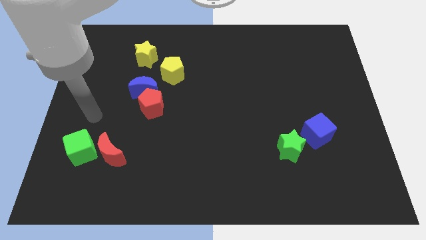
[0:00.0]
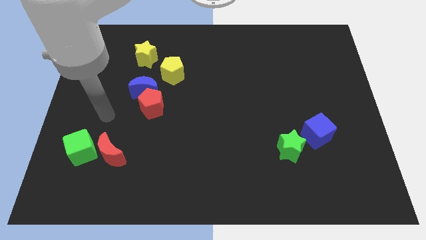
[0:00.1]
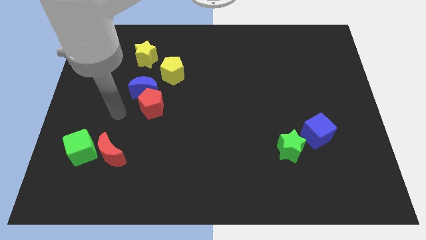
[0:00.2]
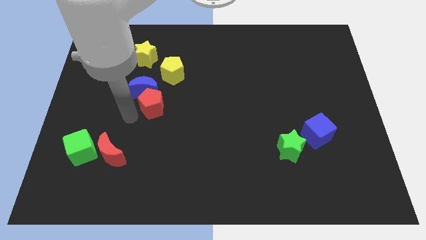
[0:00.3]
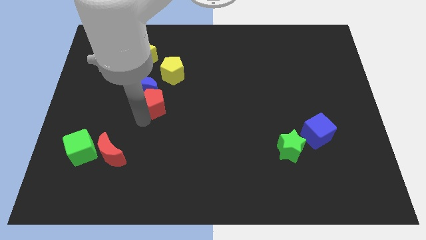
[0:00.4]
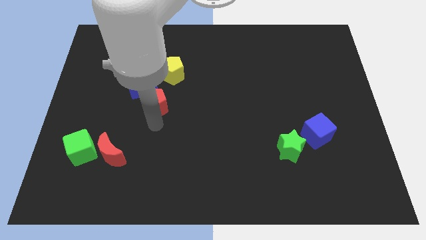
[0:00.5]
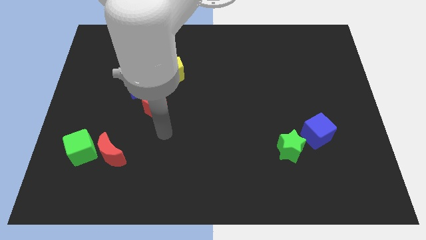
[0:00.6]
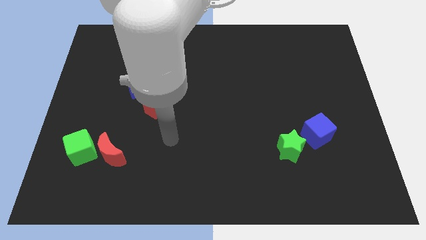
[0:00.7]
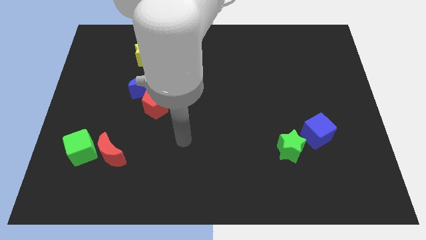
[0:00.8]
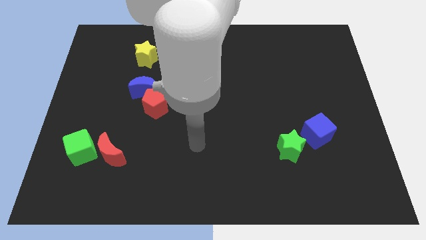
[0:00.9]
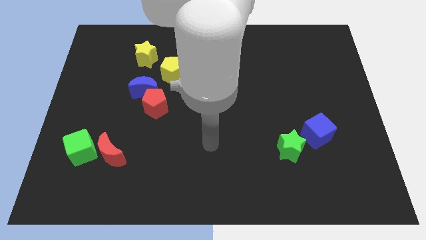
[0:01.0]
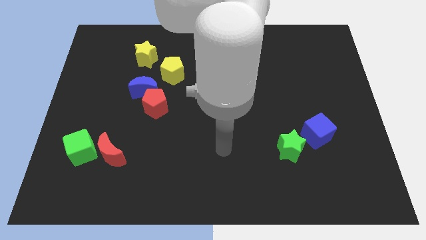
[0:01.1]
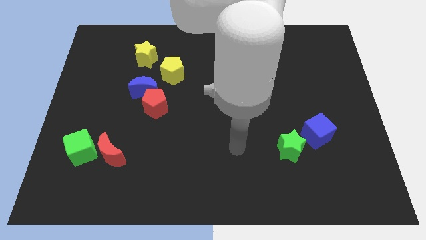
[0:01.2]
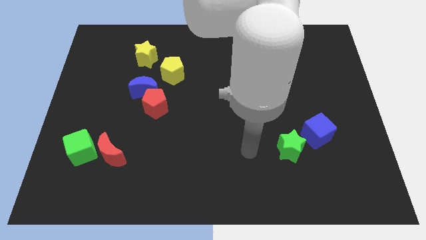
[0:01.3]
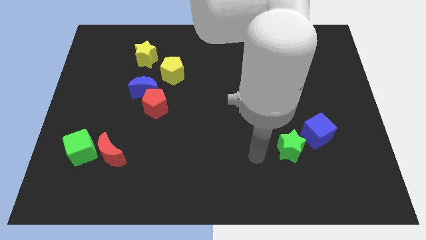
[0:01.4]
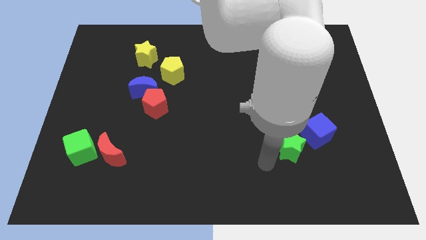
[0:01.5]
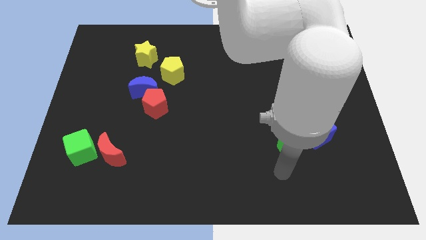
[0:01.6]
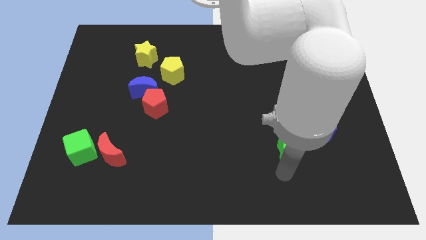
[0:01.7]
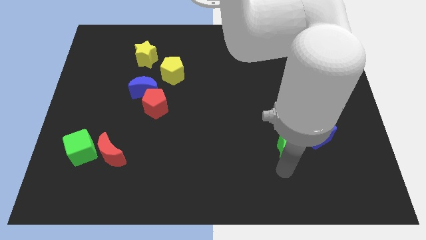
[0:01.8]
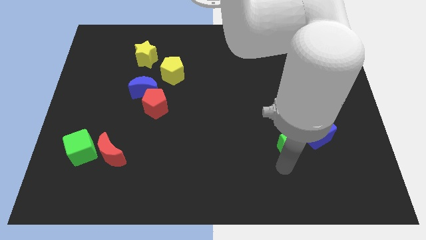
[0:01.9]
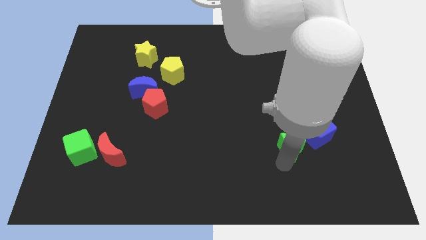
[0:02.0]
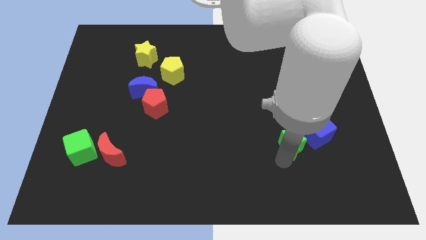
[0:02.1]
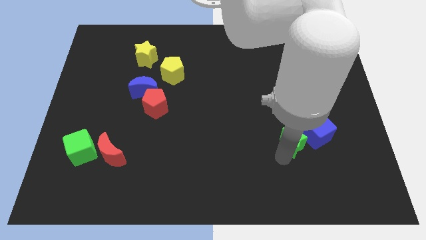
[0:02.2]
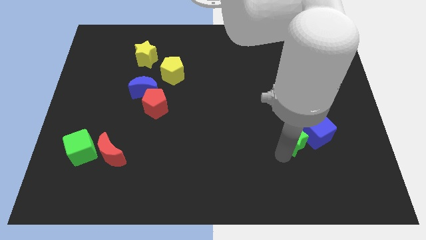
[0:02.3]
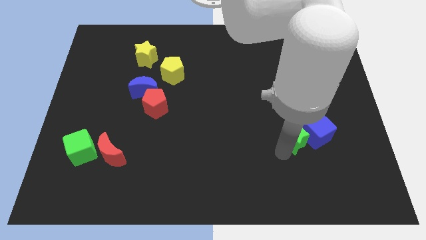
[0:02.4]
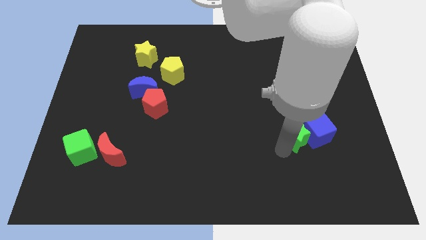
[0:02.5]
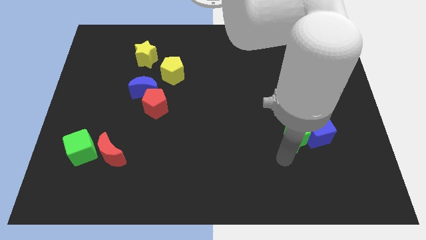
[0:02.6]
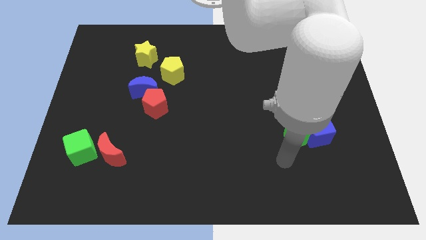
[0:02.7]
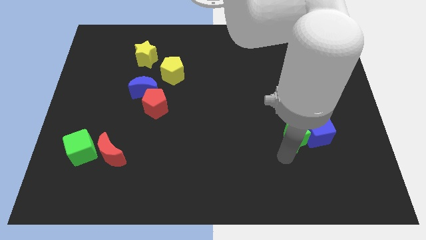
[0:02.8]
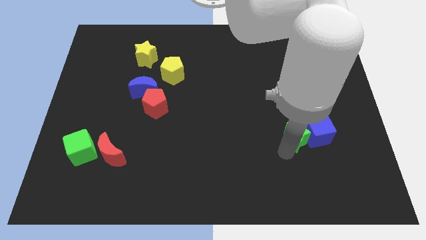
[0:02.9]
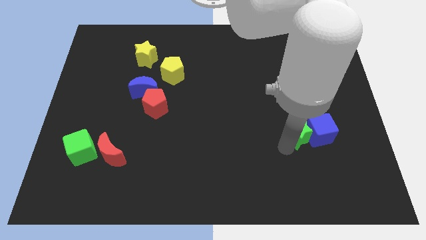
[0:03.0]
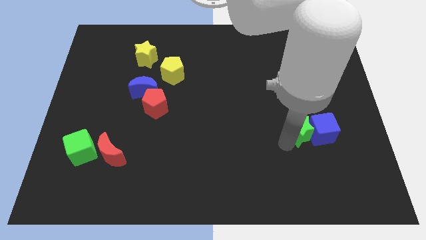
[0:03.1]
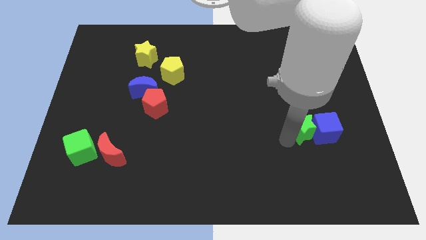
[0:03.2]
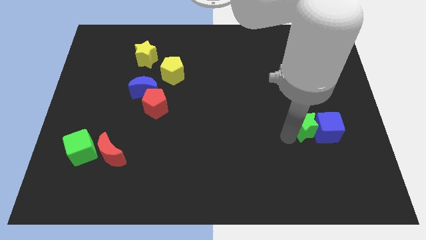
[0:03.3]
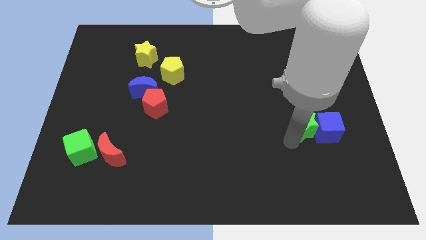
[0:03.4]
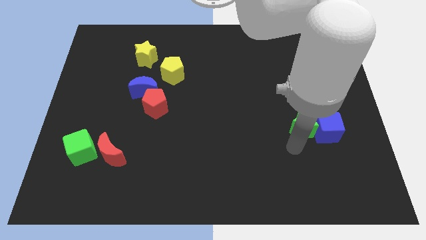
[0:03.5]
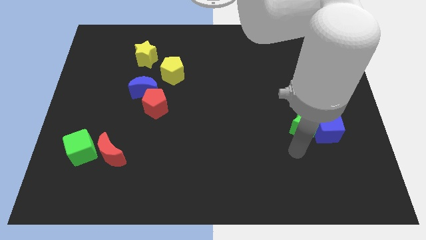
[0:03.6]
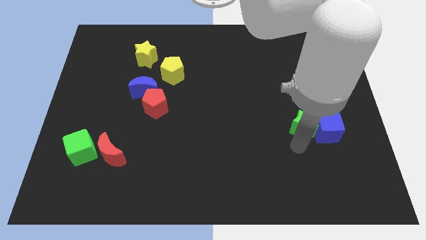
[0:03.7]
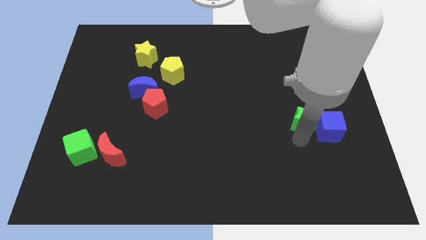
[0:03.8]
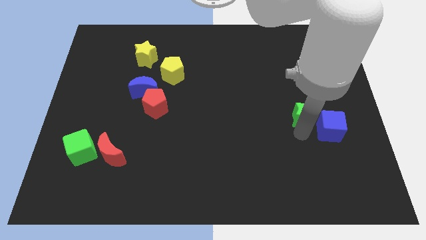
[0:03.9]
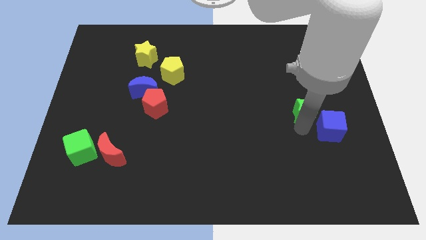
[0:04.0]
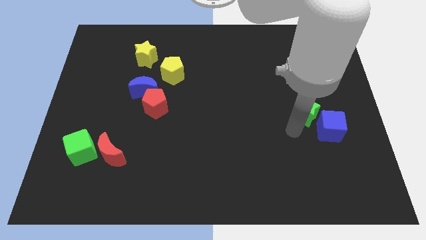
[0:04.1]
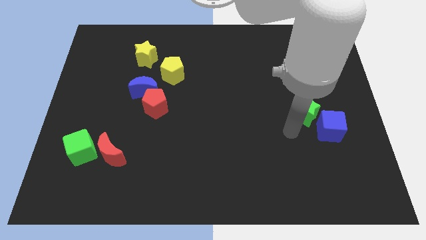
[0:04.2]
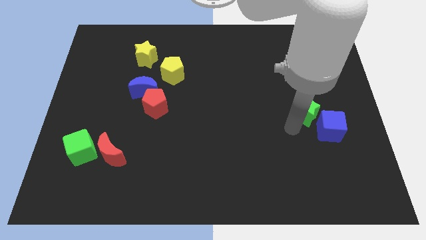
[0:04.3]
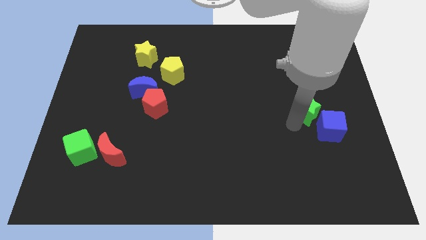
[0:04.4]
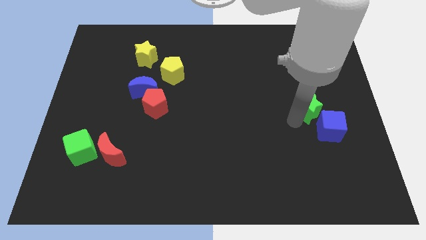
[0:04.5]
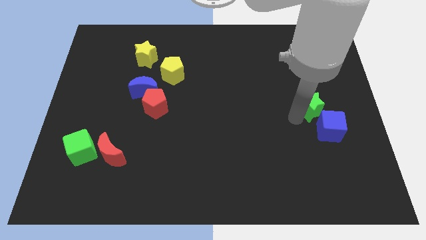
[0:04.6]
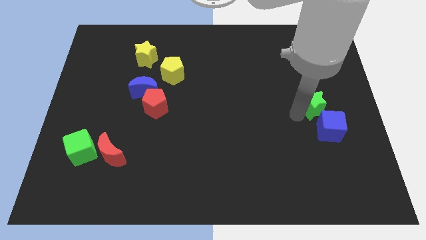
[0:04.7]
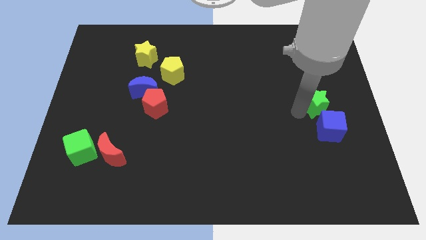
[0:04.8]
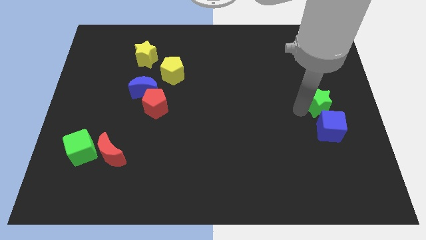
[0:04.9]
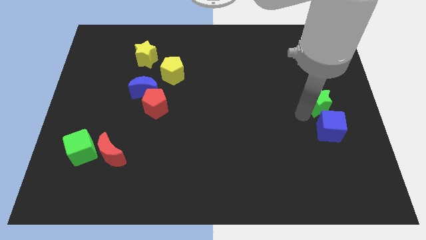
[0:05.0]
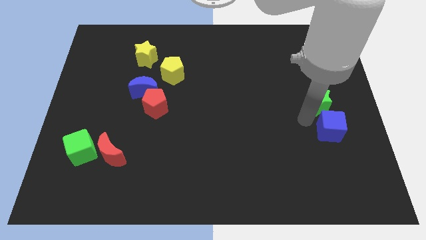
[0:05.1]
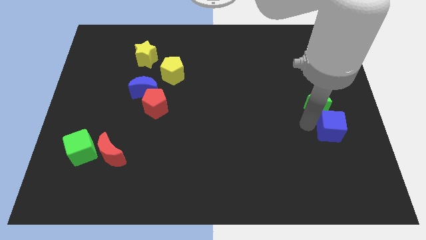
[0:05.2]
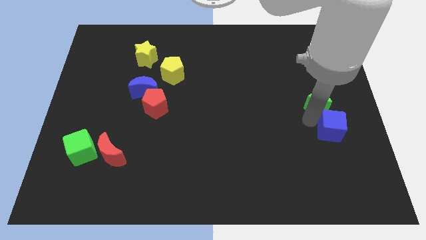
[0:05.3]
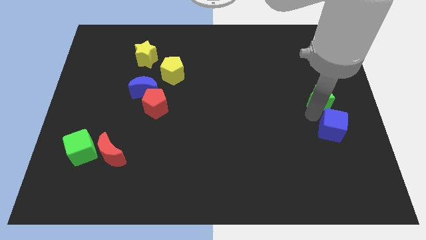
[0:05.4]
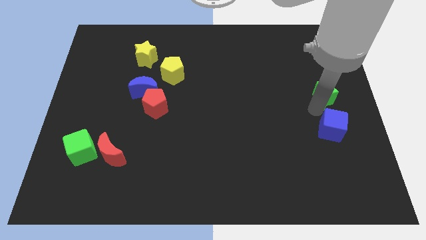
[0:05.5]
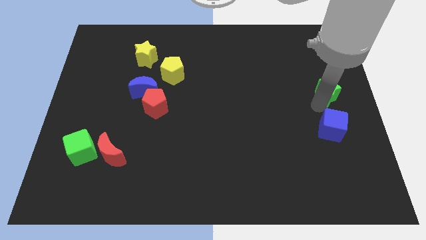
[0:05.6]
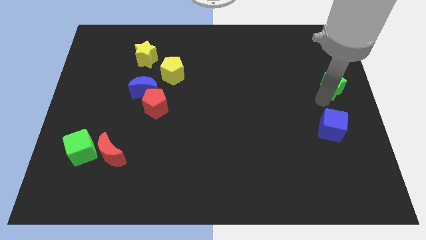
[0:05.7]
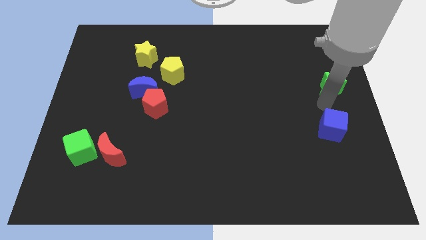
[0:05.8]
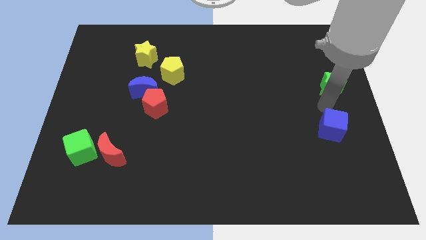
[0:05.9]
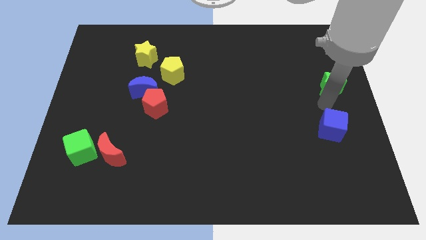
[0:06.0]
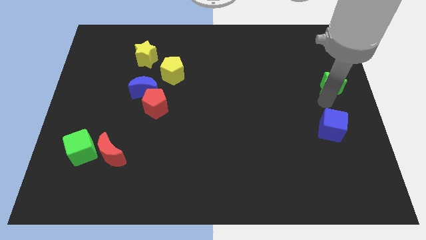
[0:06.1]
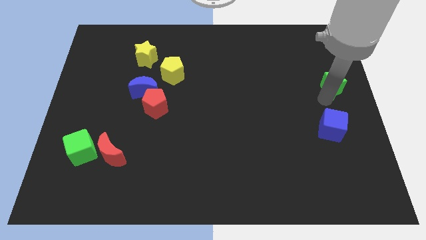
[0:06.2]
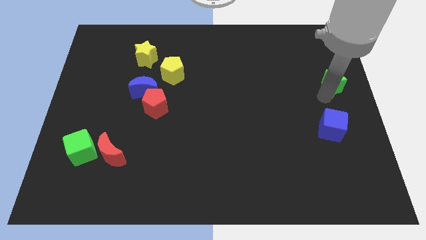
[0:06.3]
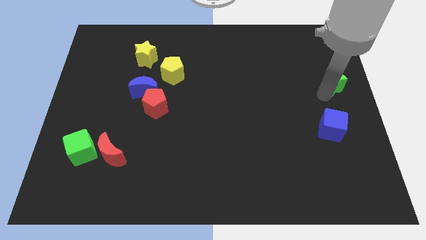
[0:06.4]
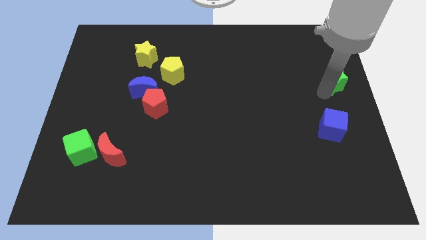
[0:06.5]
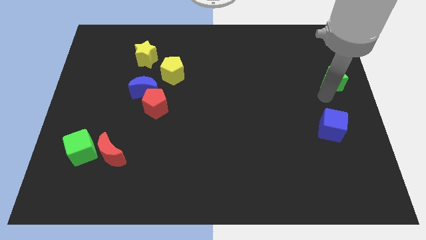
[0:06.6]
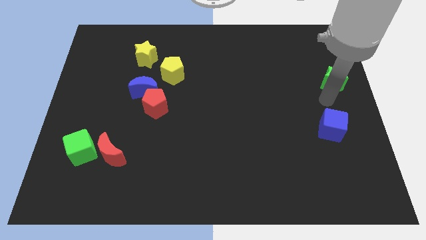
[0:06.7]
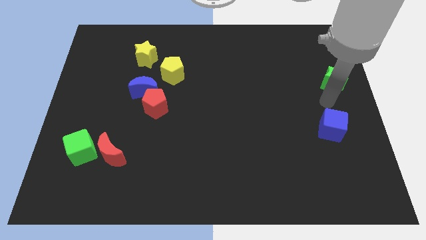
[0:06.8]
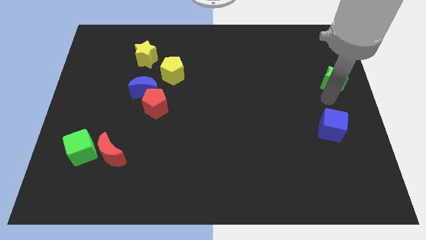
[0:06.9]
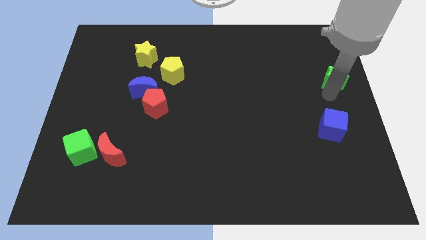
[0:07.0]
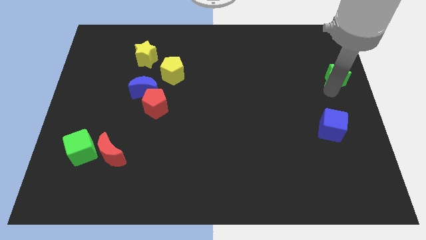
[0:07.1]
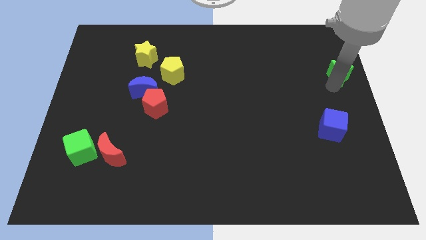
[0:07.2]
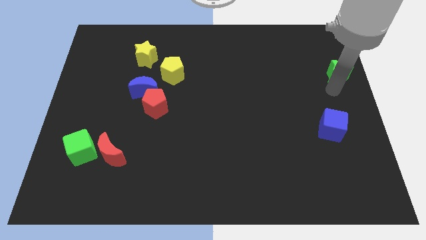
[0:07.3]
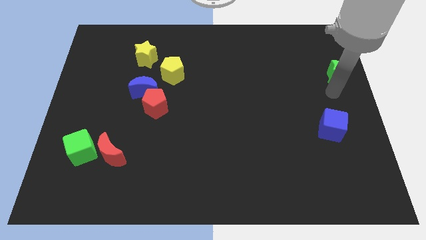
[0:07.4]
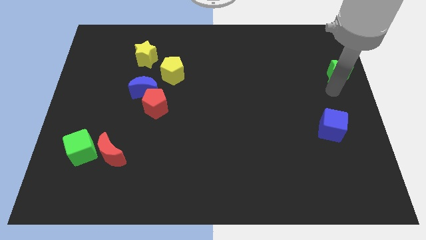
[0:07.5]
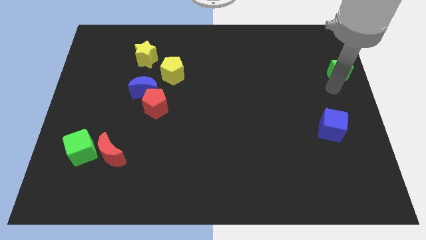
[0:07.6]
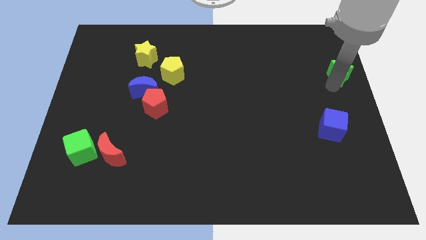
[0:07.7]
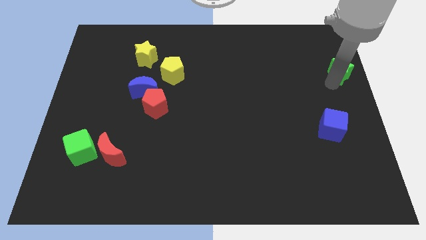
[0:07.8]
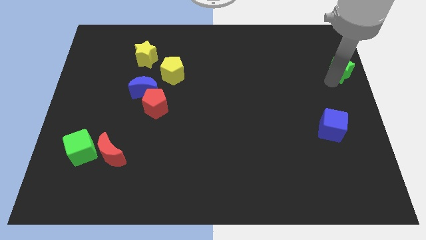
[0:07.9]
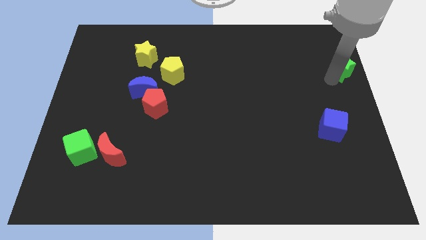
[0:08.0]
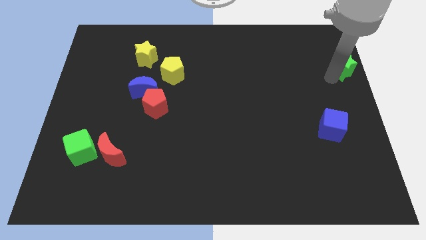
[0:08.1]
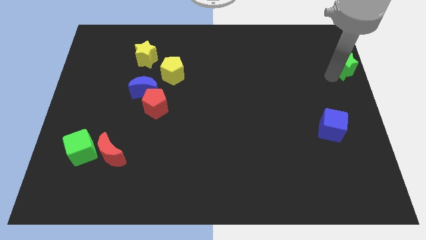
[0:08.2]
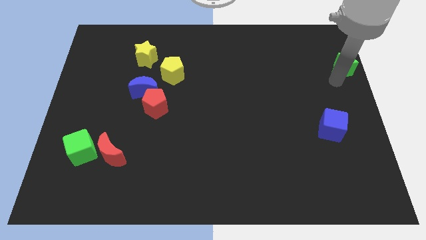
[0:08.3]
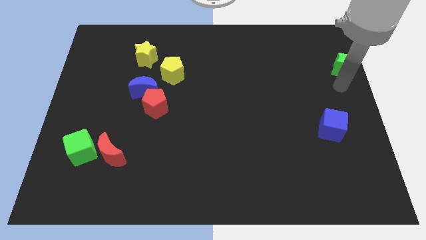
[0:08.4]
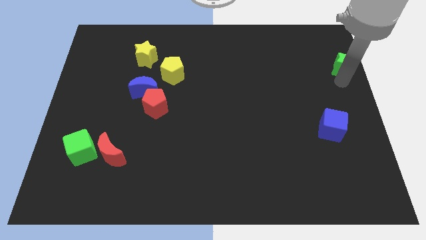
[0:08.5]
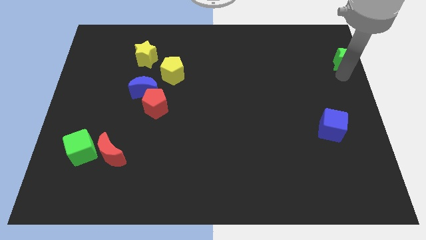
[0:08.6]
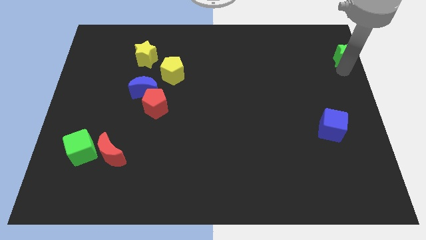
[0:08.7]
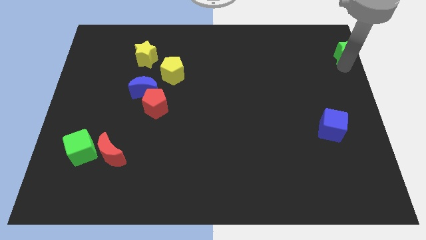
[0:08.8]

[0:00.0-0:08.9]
put the green star to the top right of the board

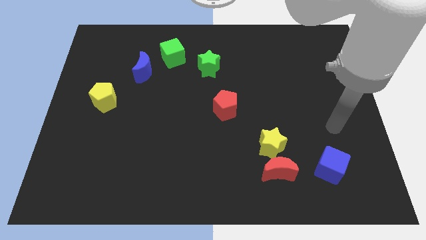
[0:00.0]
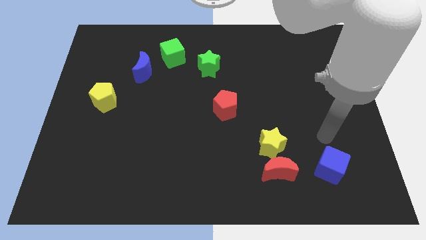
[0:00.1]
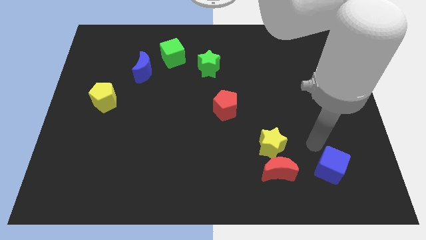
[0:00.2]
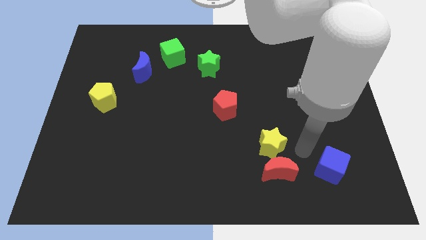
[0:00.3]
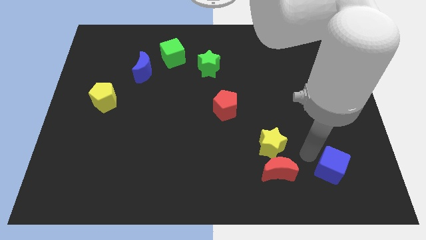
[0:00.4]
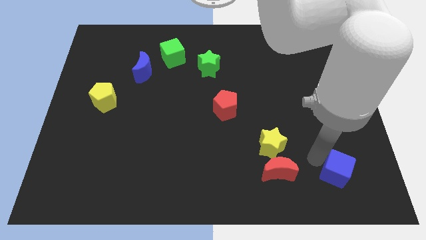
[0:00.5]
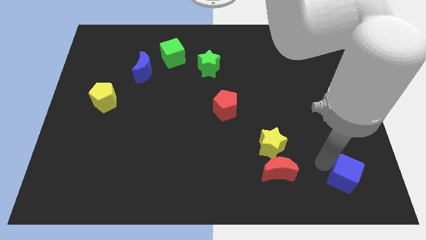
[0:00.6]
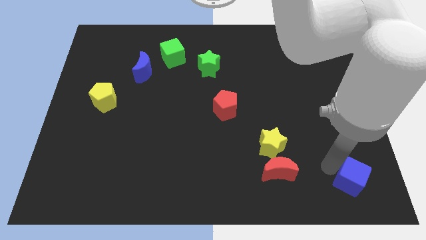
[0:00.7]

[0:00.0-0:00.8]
put the blue cube to the bottom right of the board
